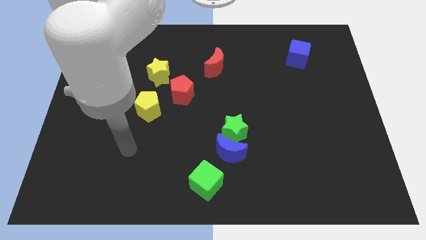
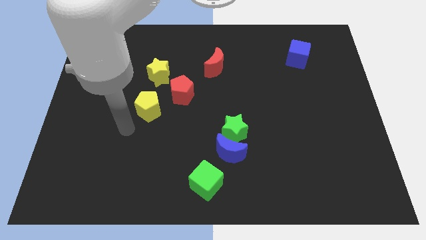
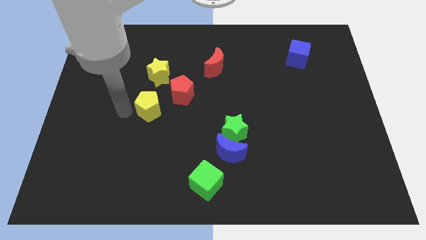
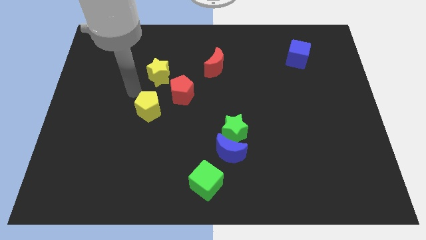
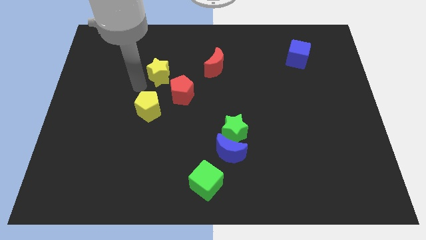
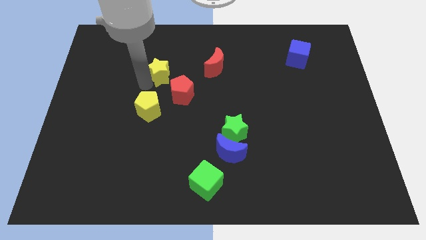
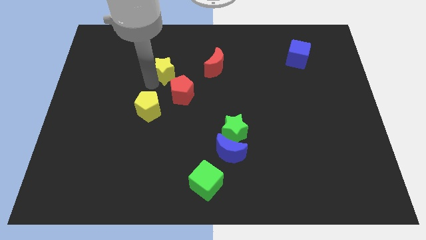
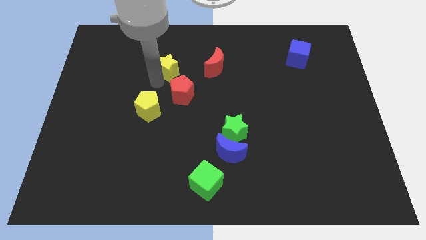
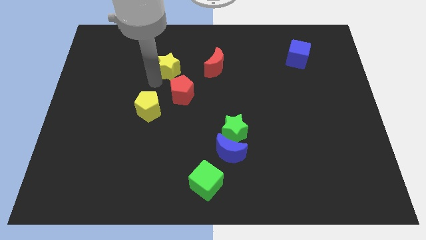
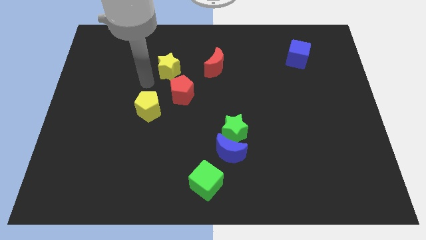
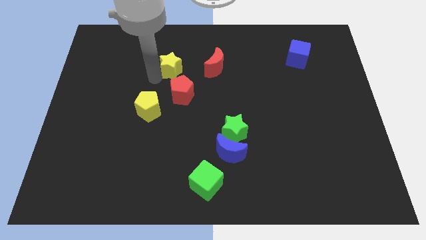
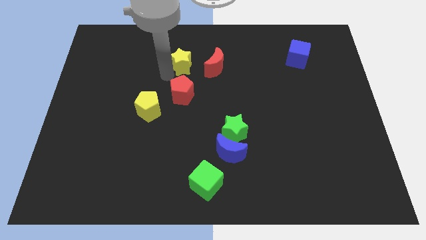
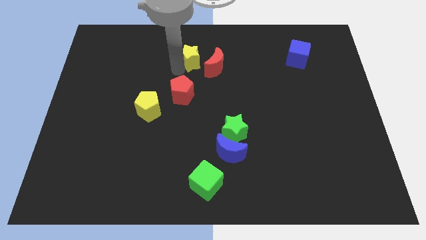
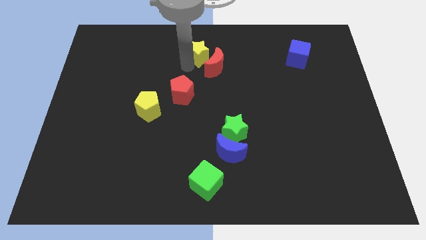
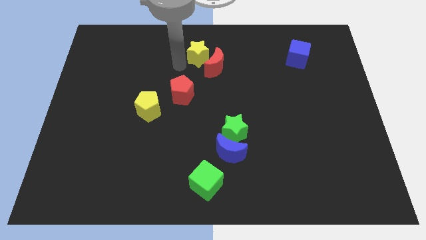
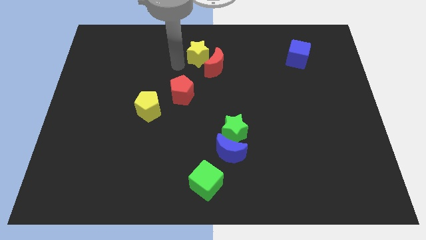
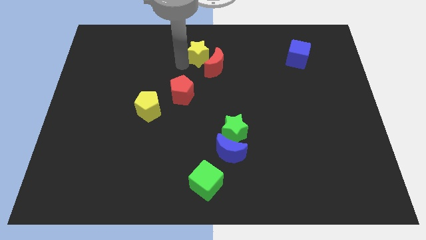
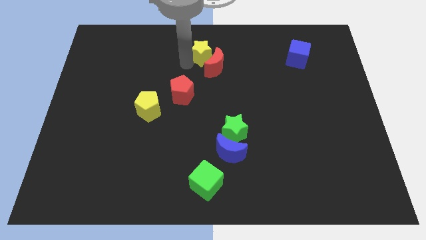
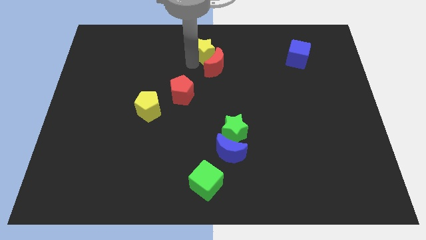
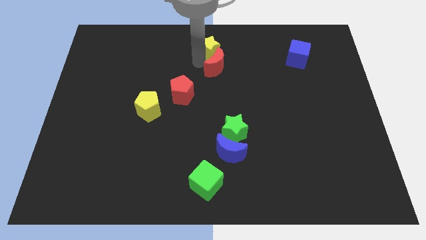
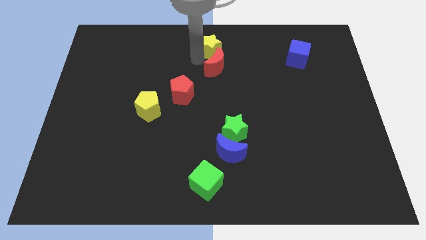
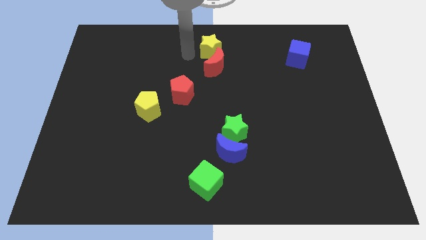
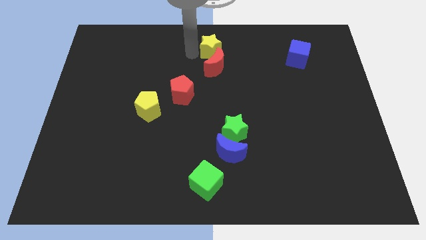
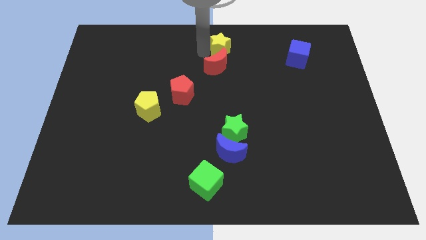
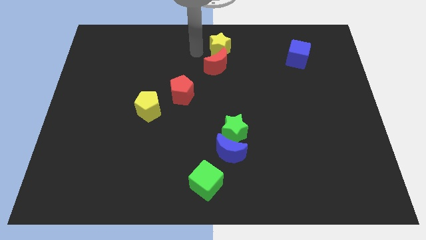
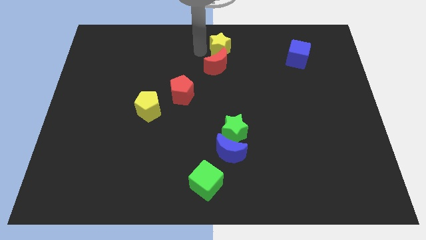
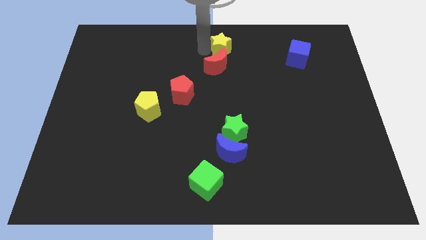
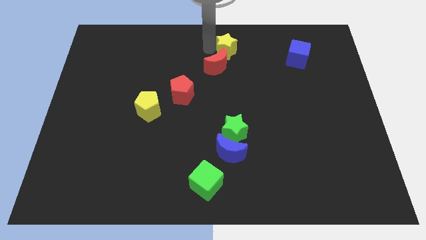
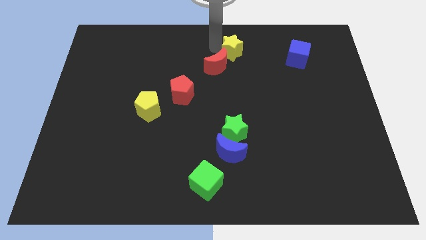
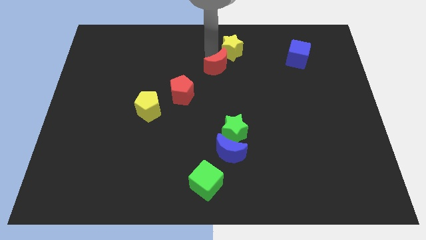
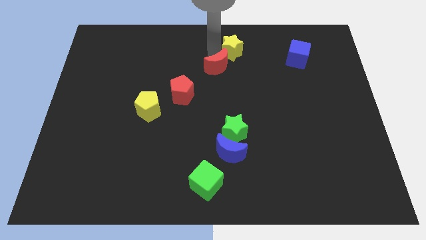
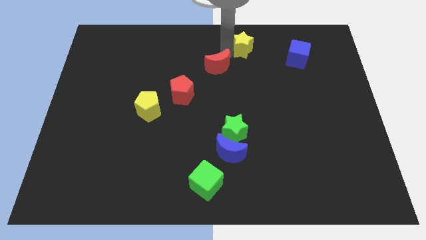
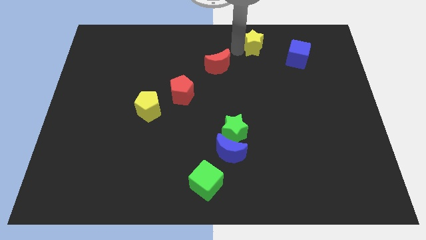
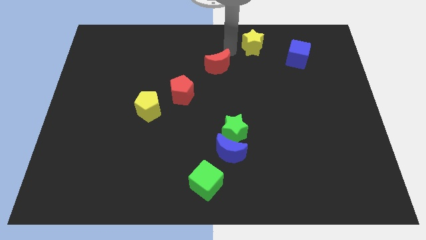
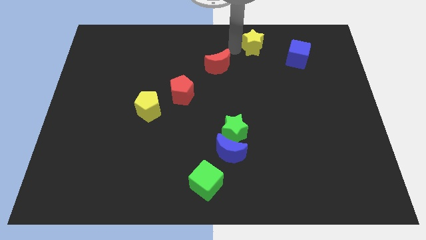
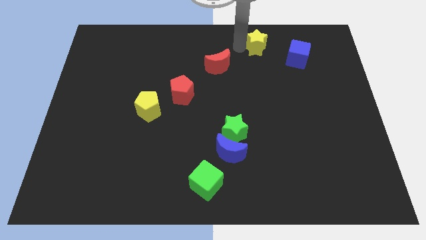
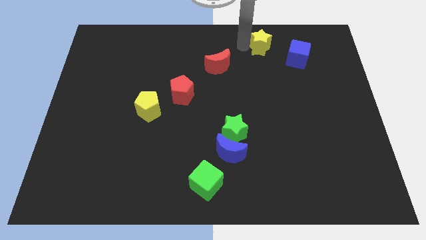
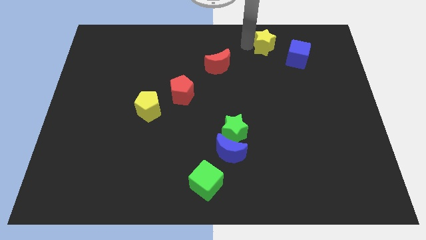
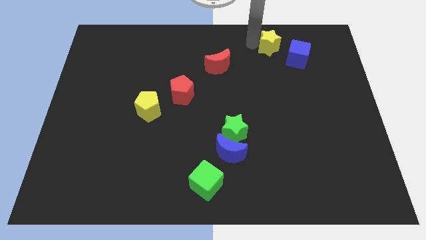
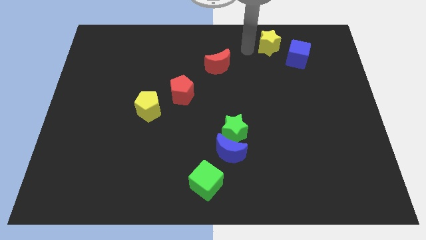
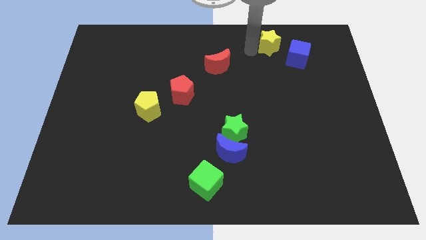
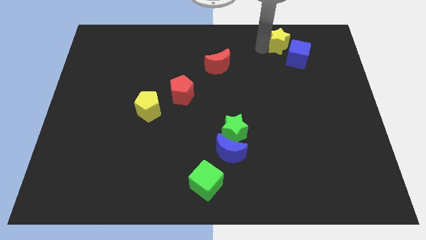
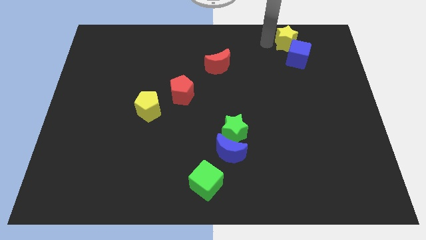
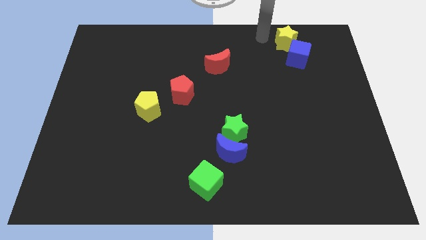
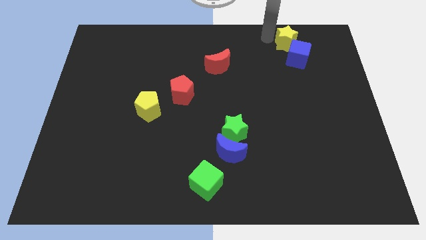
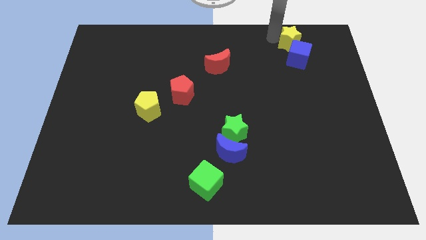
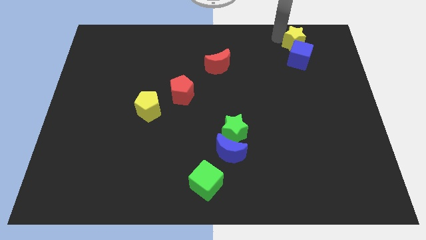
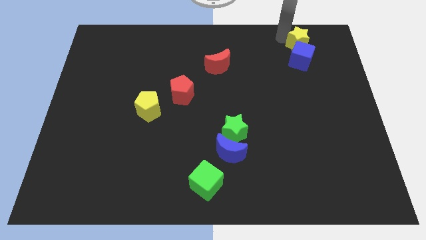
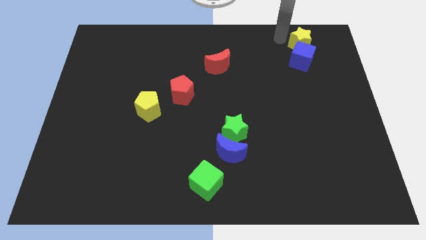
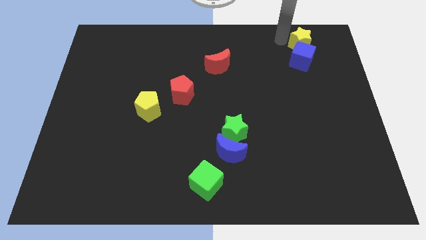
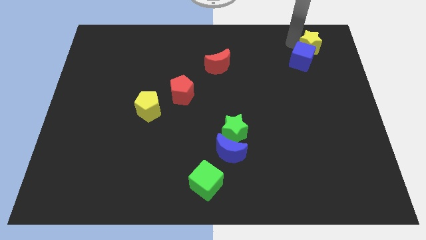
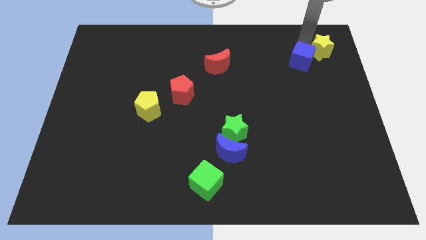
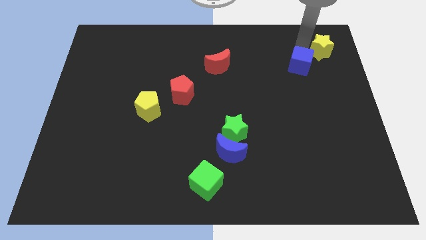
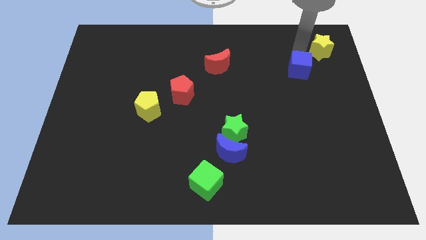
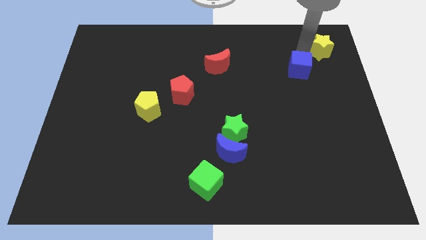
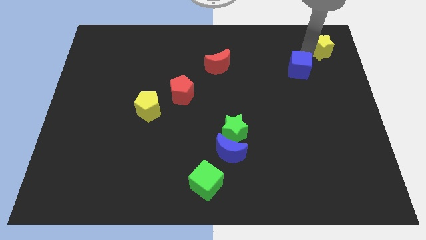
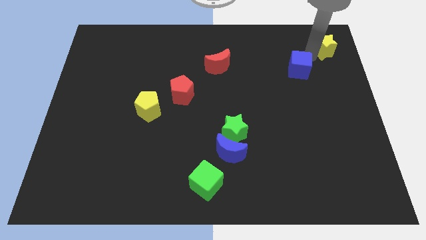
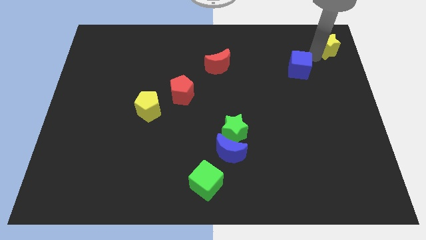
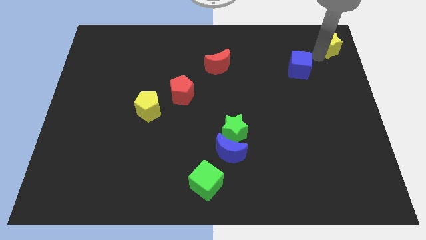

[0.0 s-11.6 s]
move the yellow star to the top right

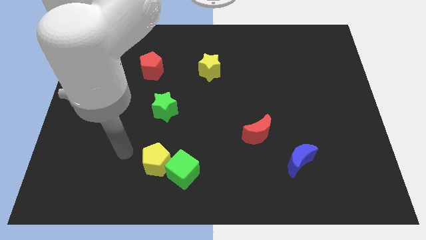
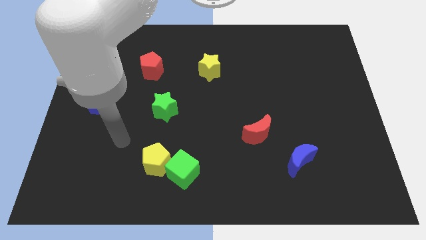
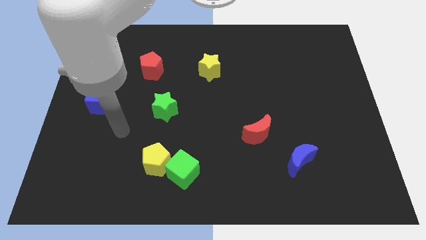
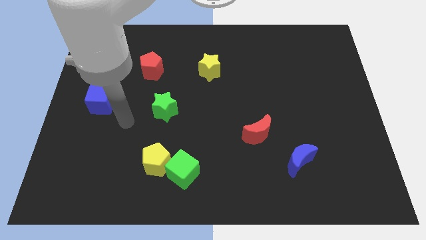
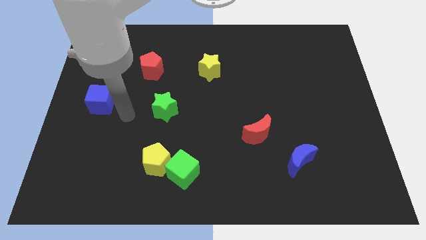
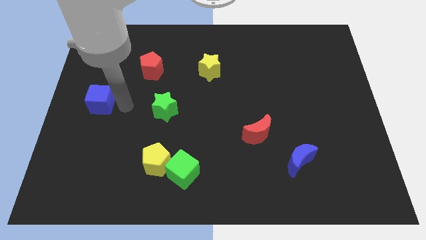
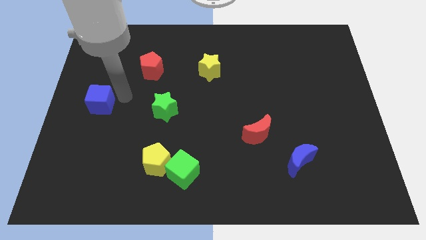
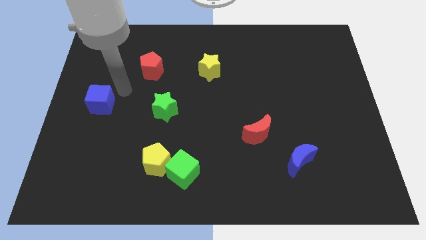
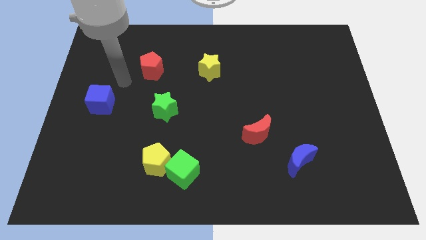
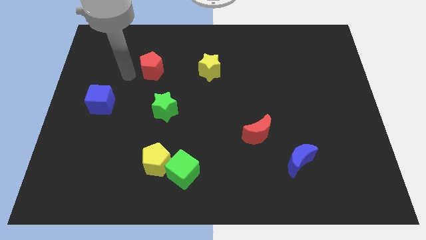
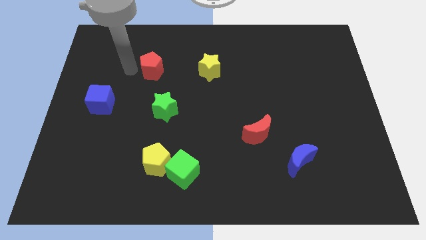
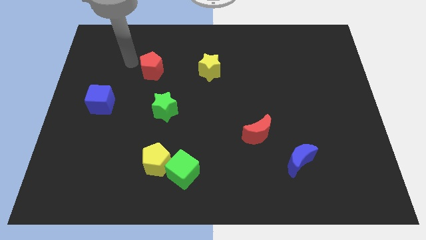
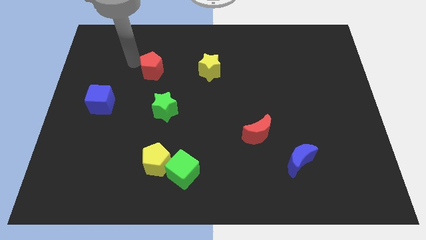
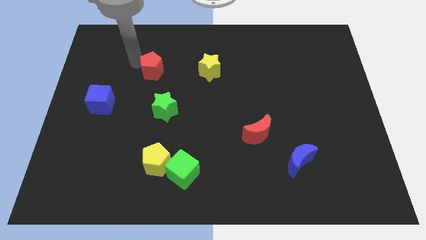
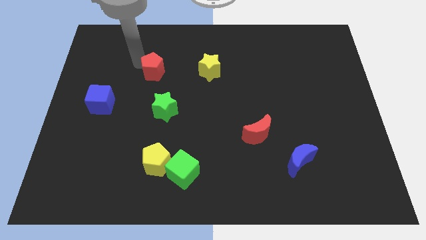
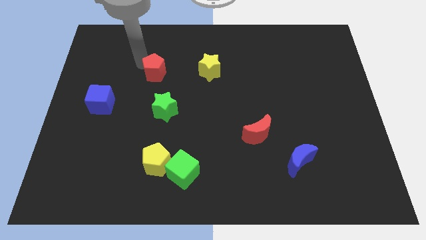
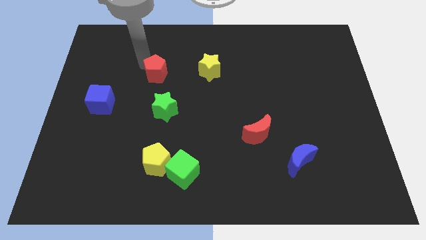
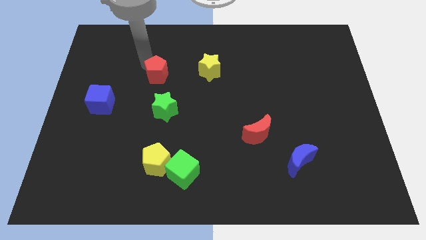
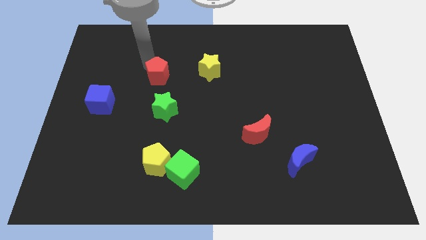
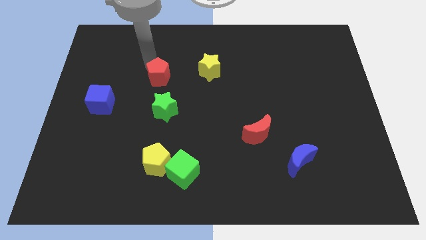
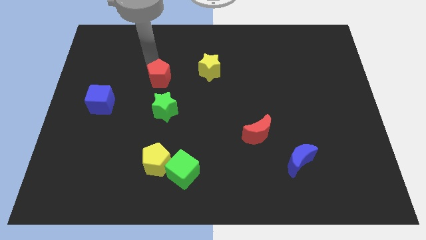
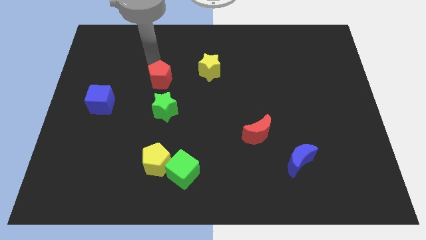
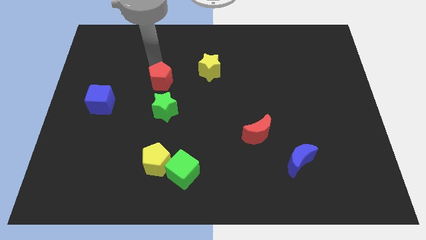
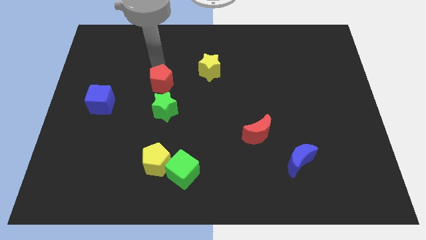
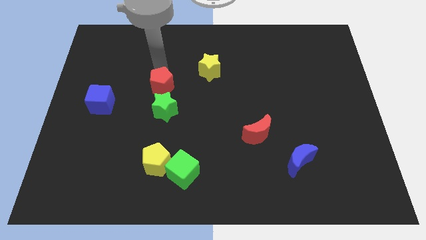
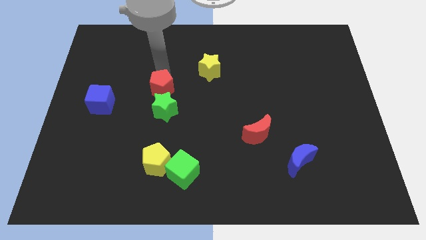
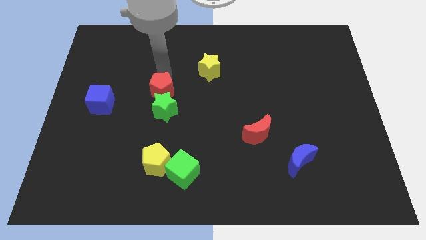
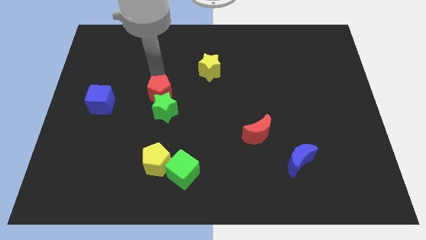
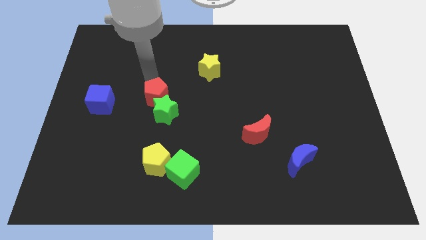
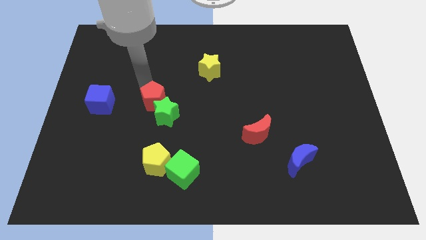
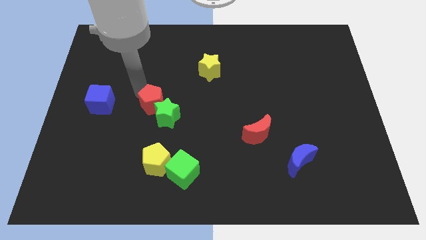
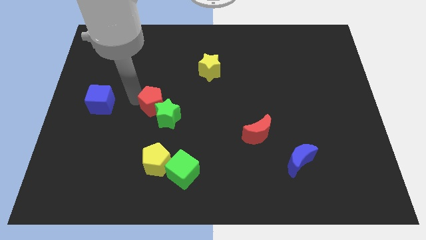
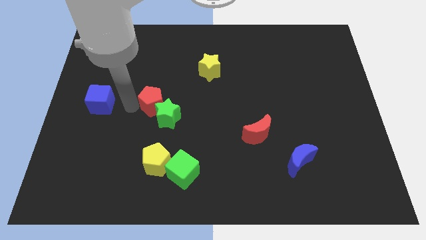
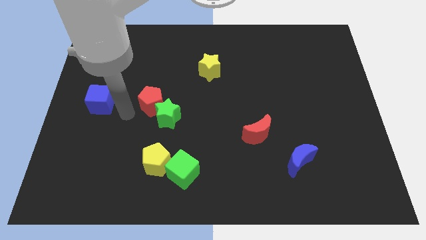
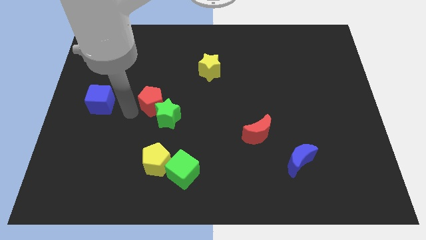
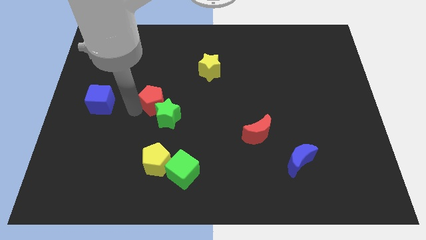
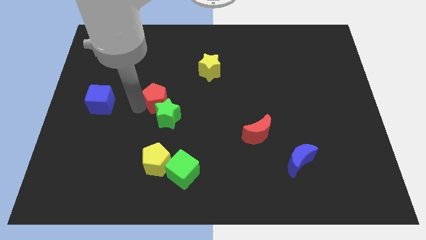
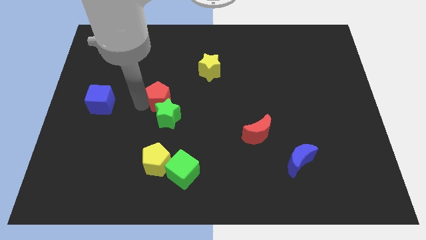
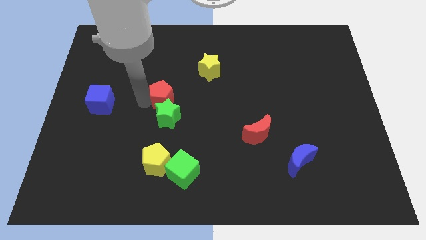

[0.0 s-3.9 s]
push the red pentagon to the center
